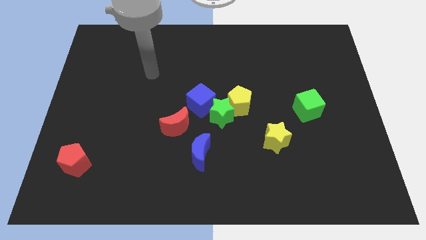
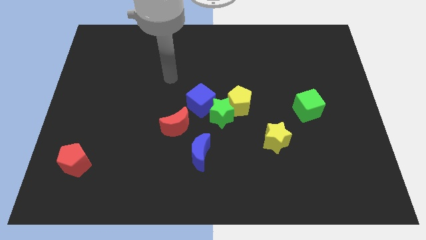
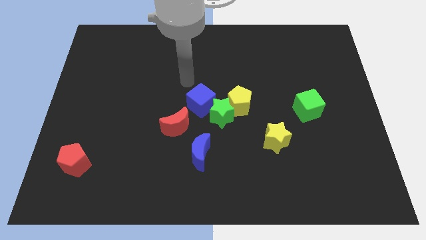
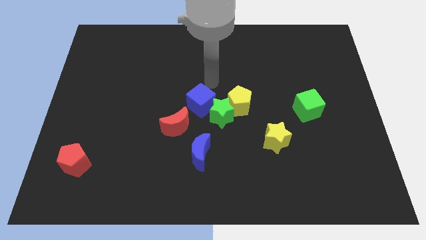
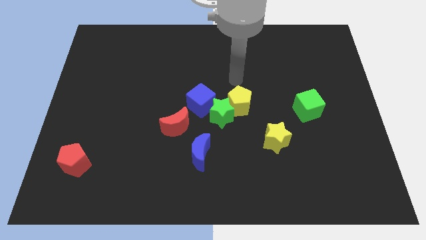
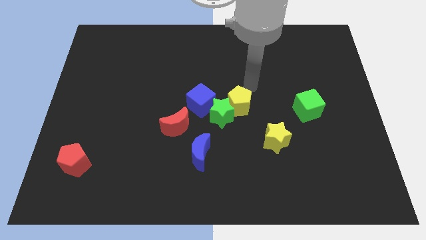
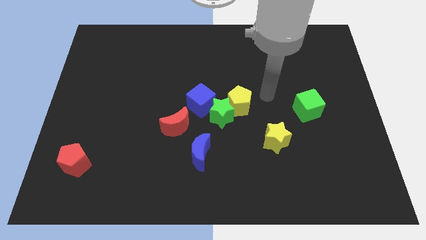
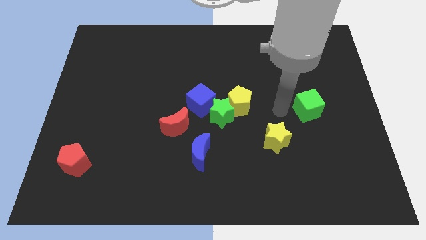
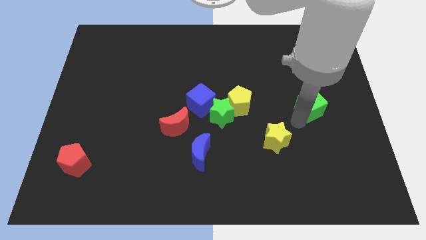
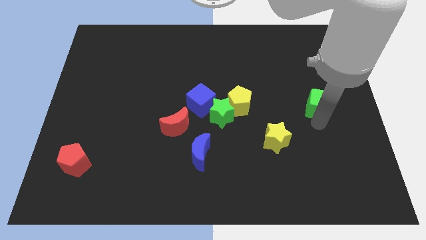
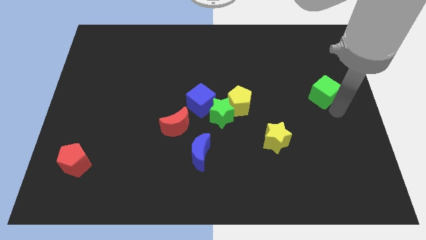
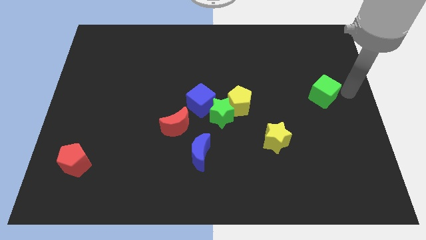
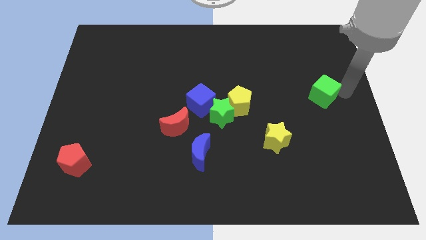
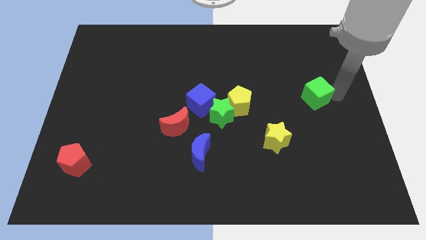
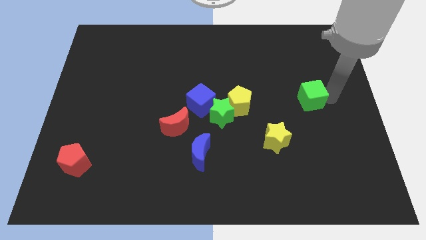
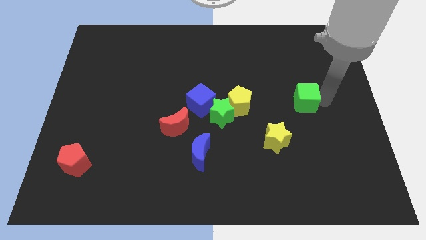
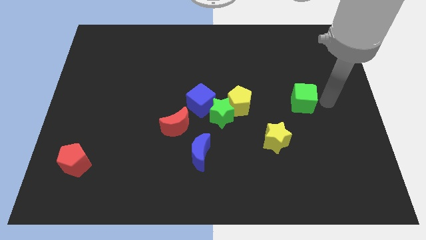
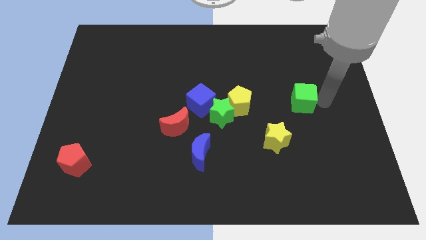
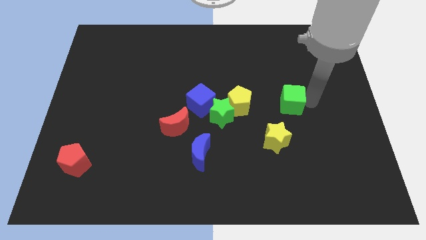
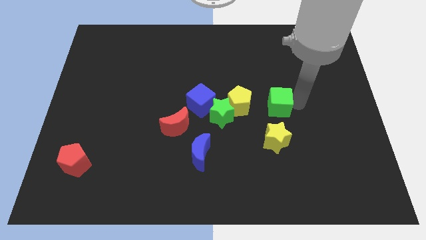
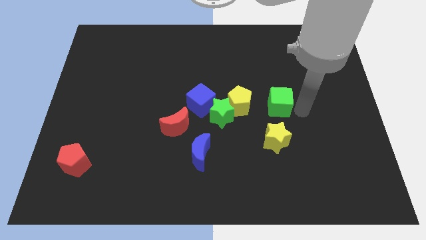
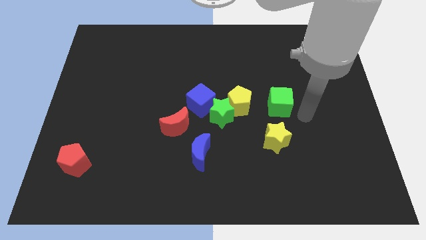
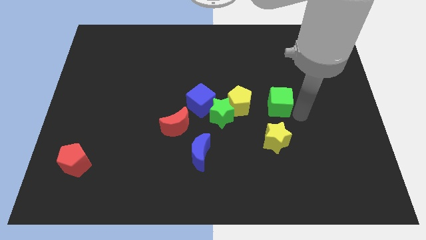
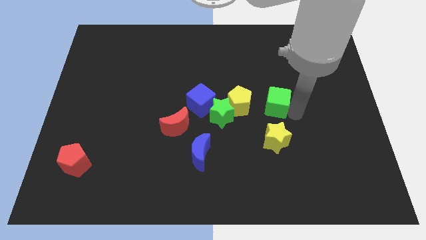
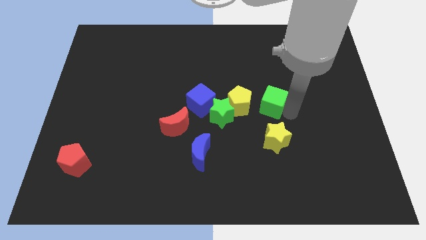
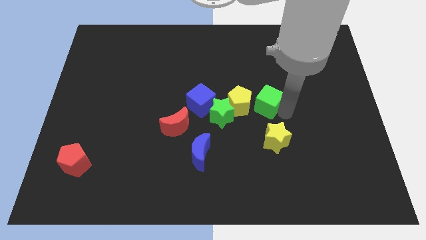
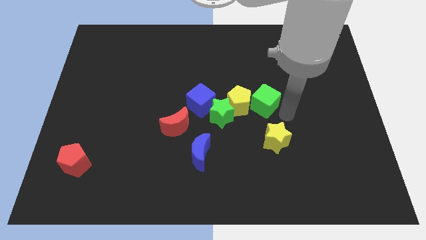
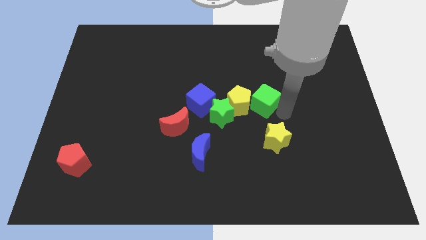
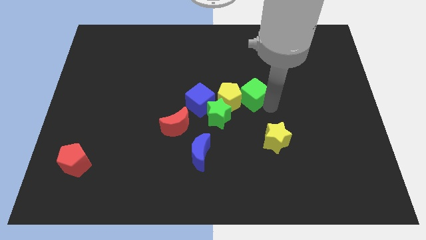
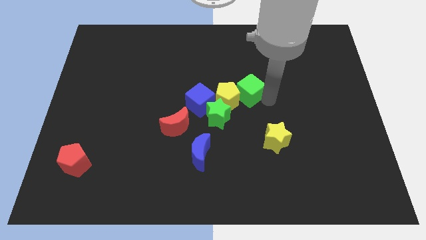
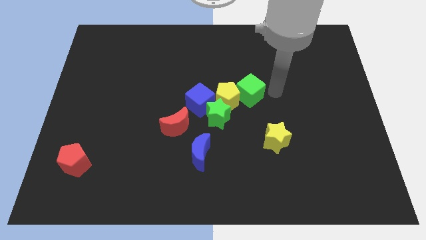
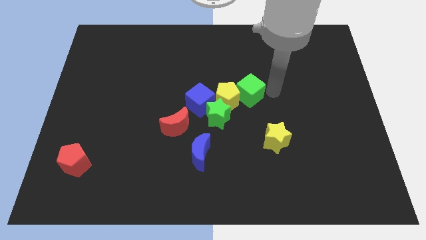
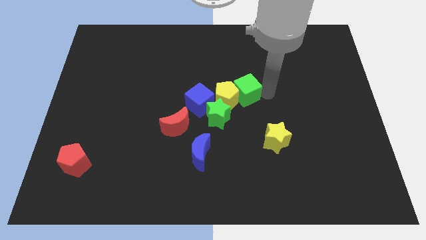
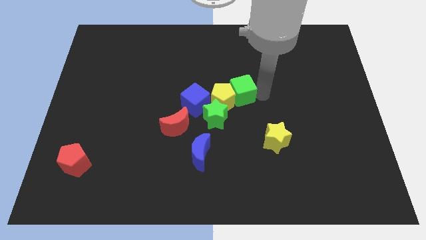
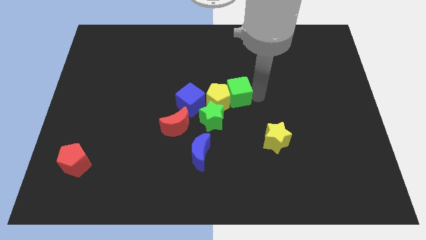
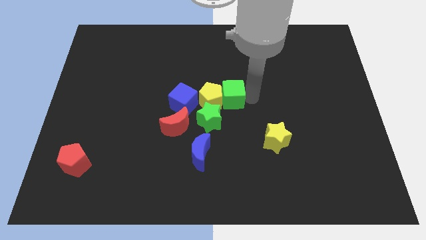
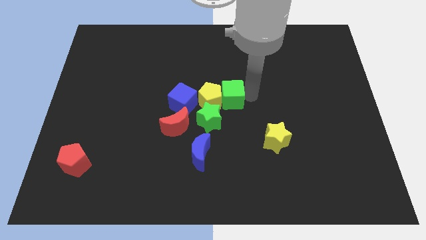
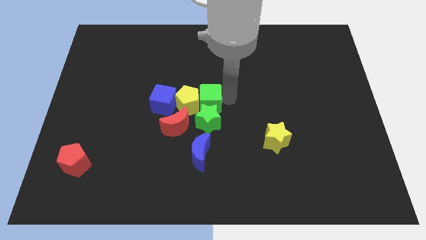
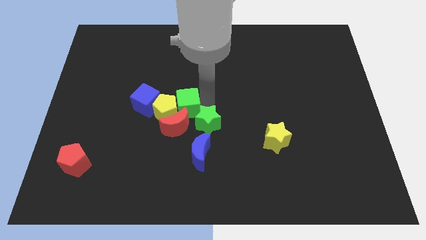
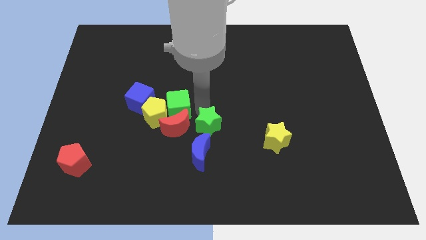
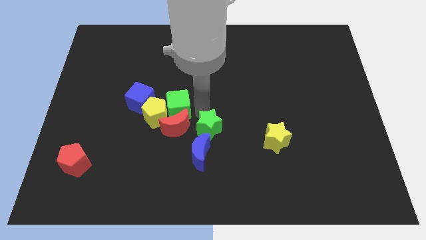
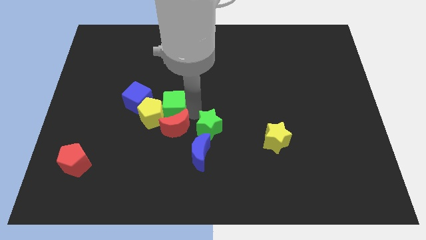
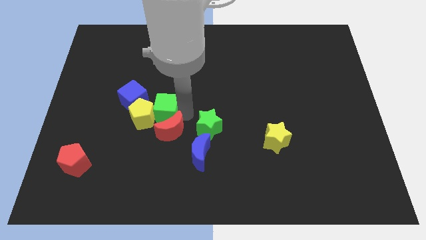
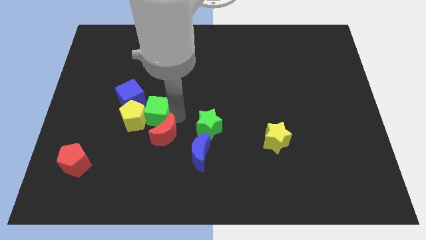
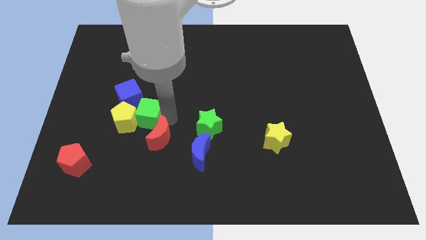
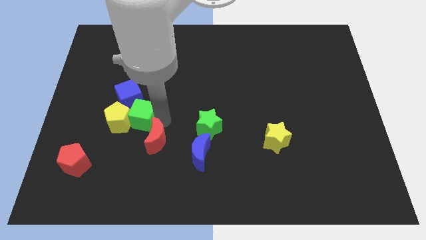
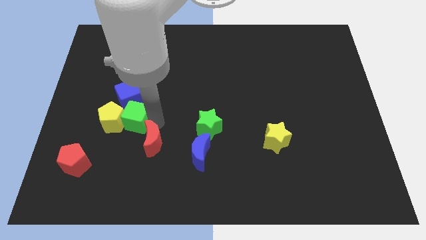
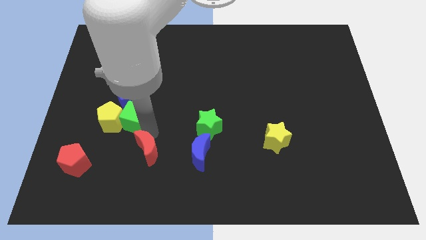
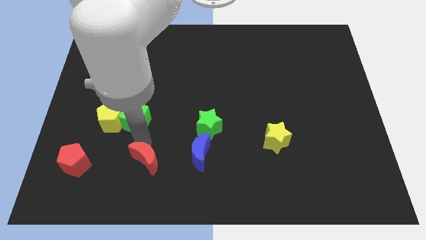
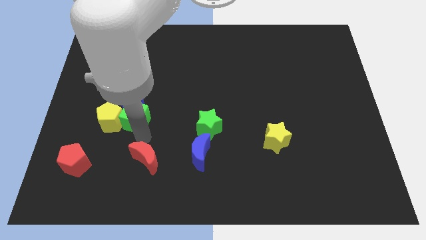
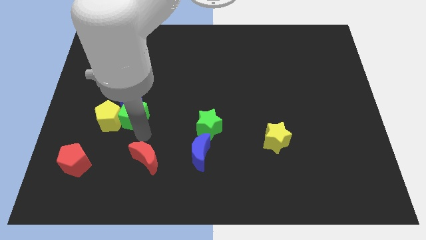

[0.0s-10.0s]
put the green cube next to the blue cube

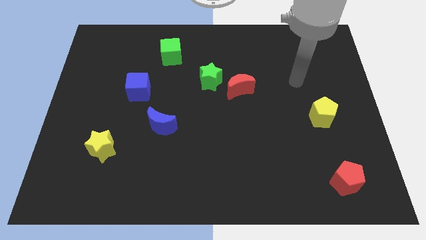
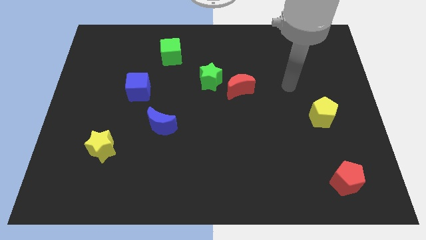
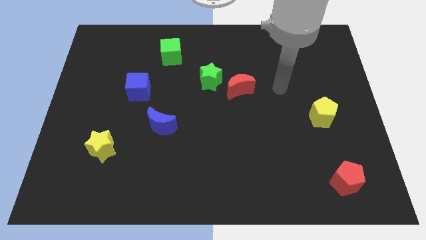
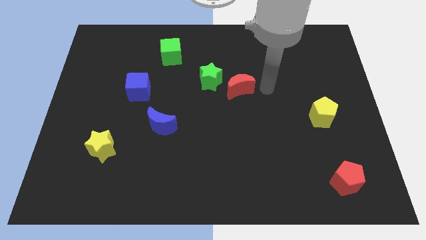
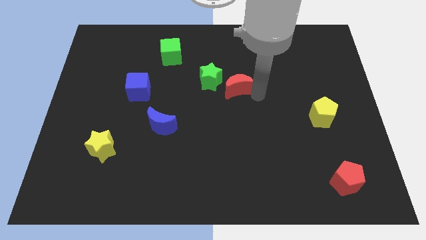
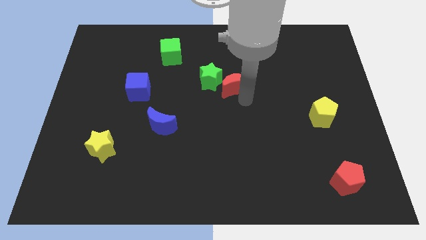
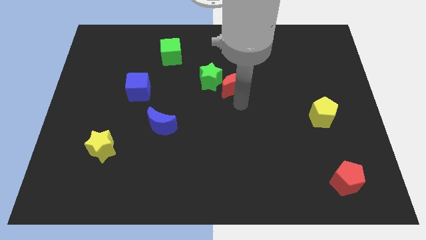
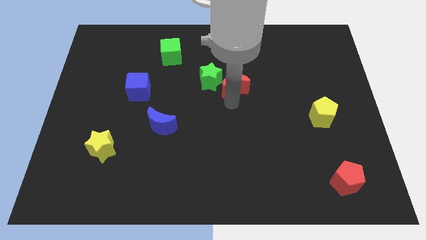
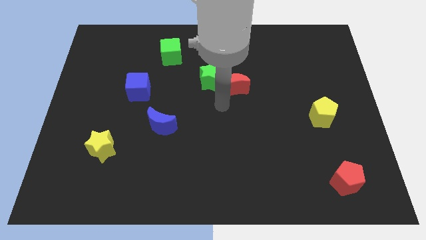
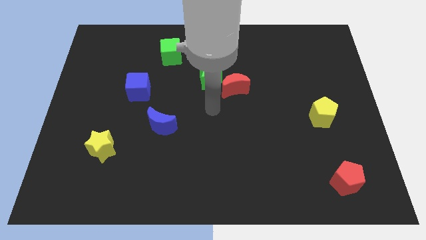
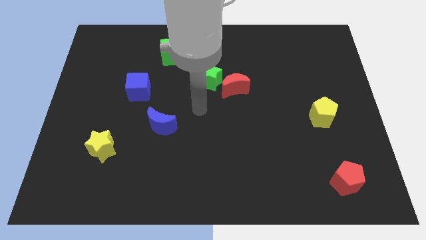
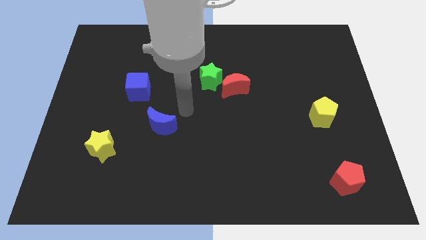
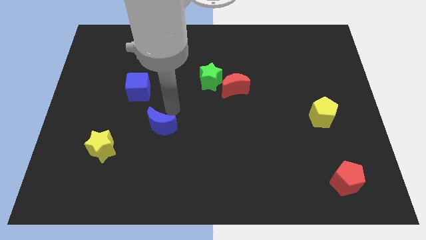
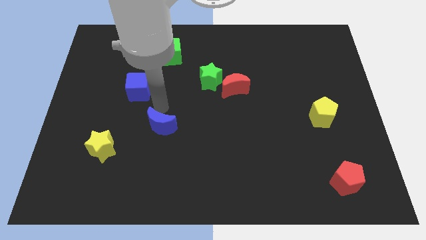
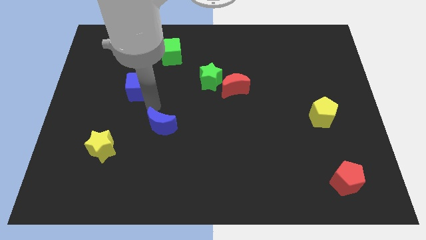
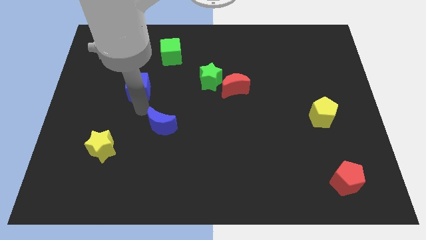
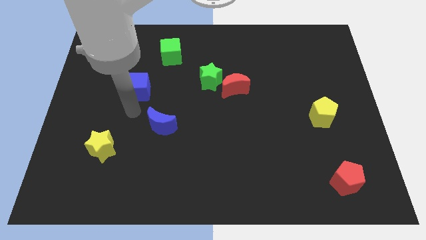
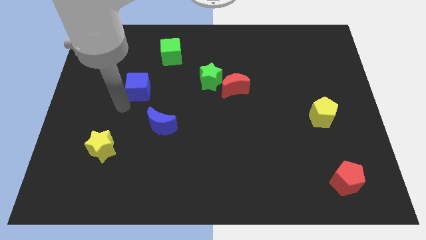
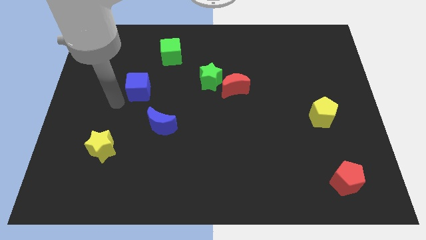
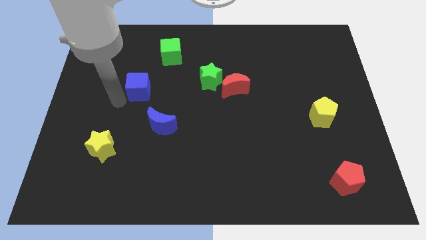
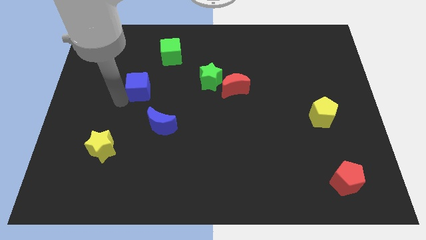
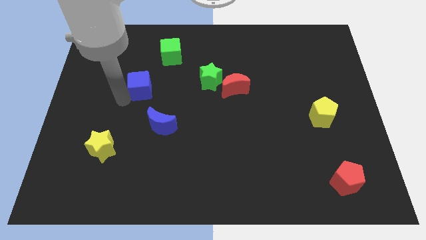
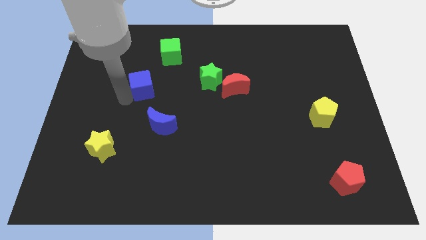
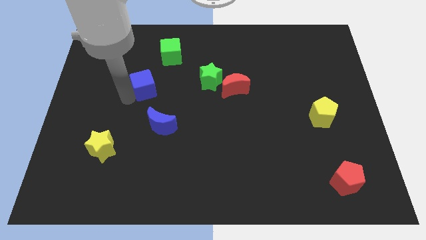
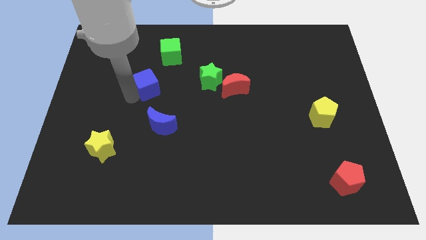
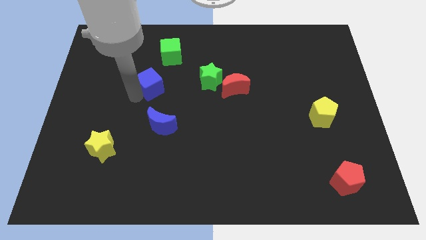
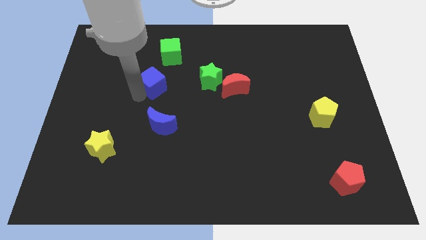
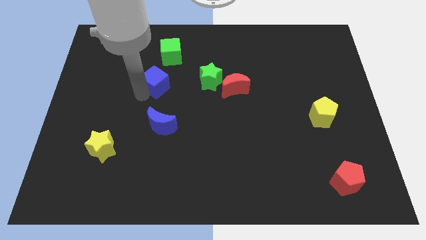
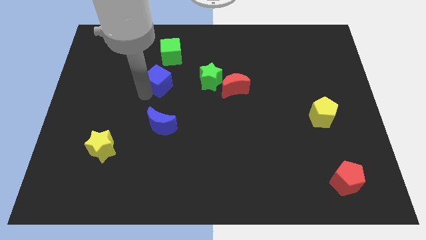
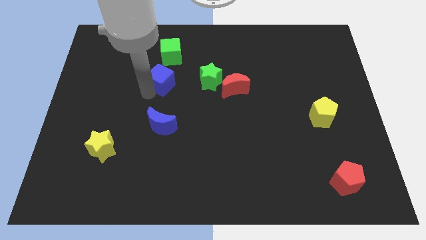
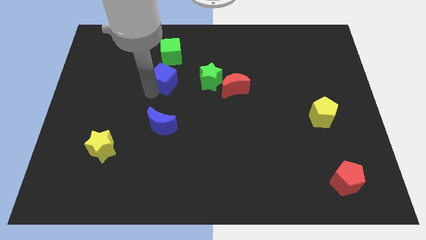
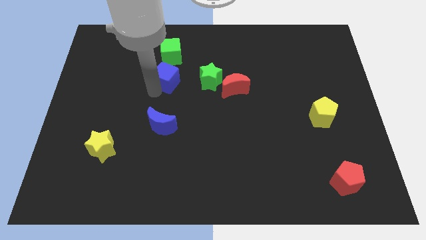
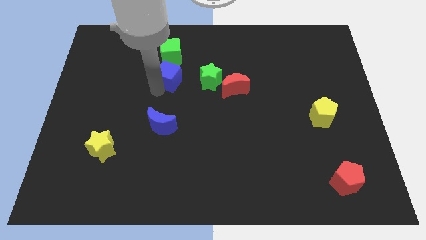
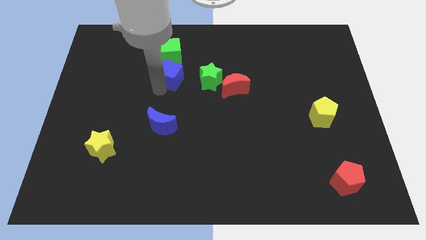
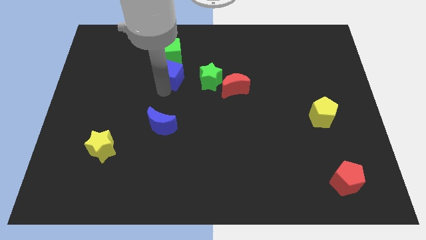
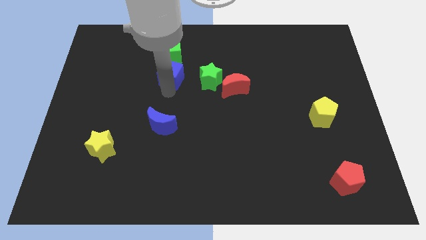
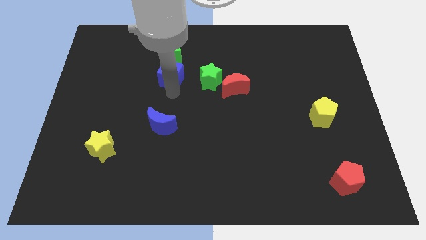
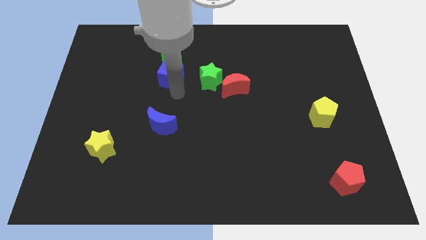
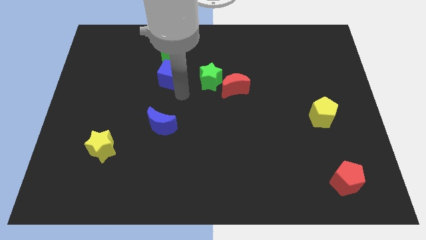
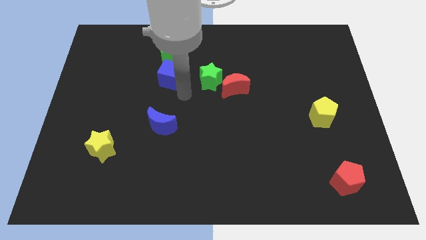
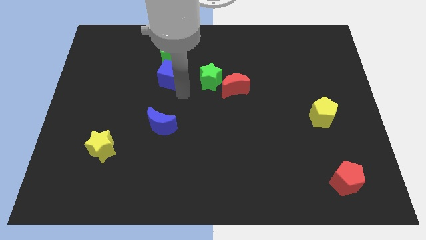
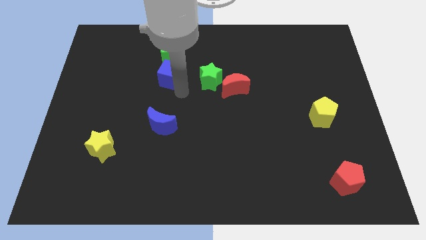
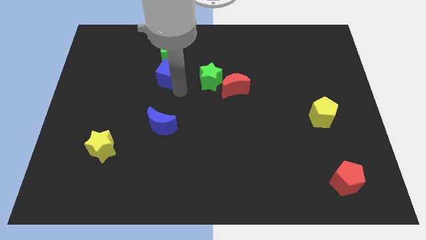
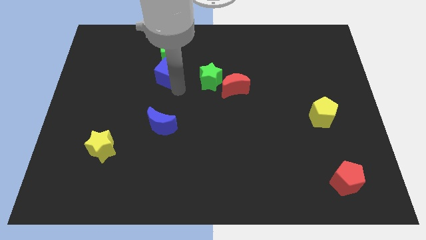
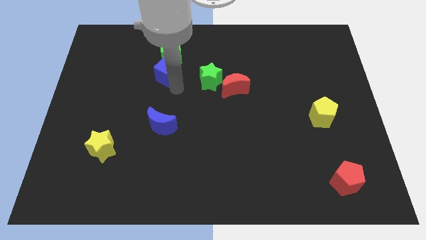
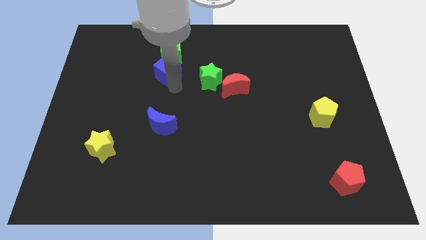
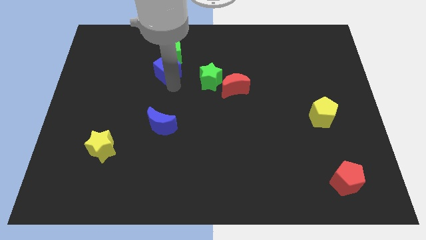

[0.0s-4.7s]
push the blue cube close to the green cube
